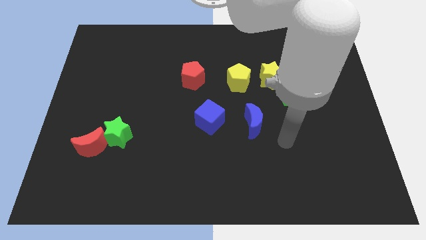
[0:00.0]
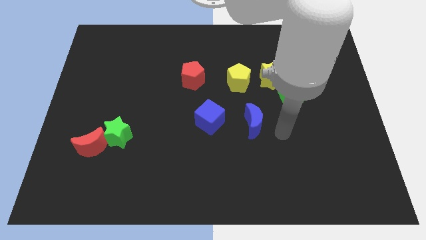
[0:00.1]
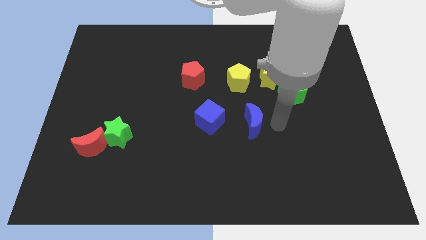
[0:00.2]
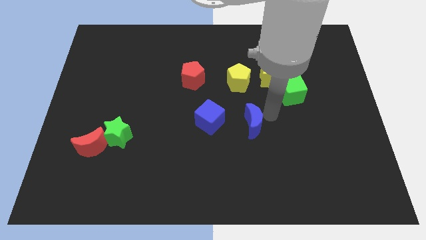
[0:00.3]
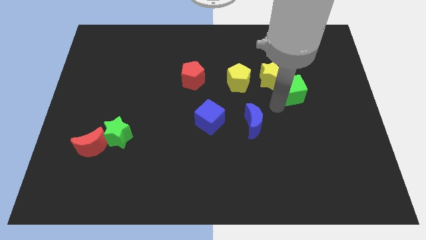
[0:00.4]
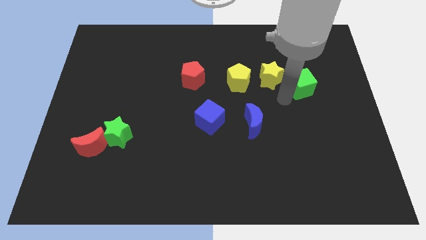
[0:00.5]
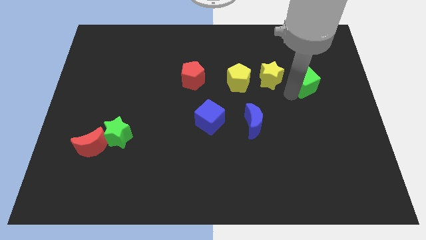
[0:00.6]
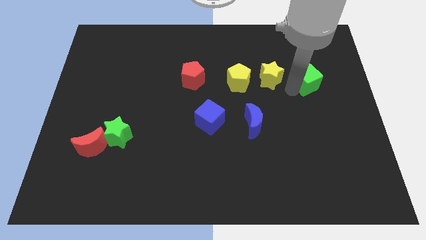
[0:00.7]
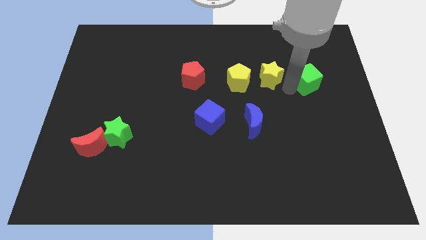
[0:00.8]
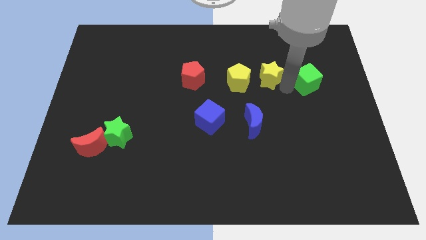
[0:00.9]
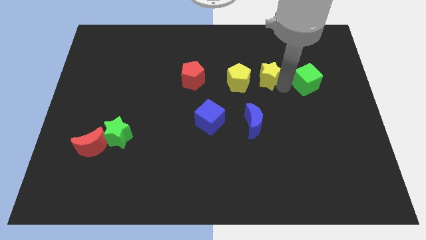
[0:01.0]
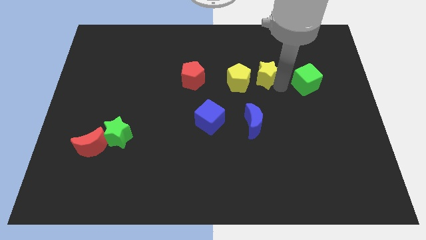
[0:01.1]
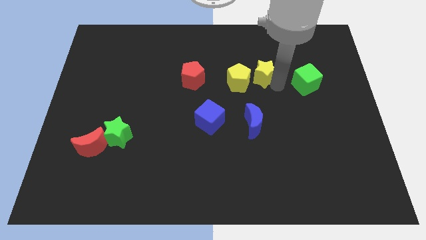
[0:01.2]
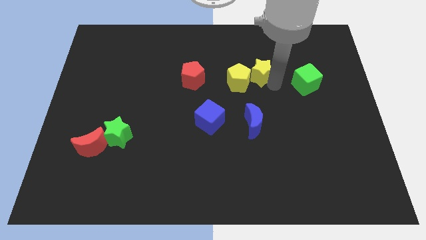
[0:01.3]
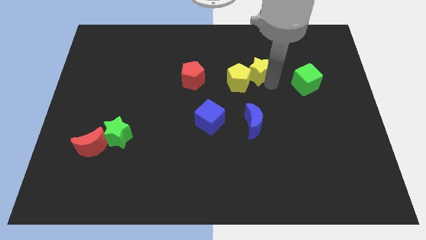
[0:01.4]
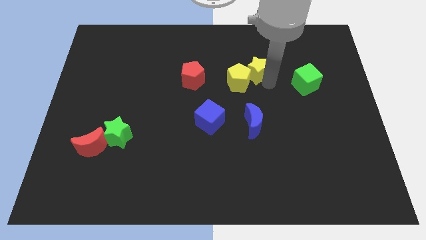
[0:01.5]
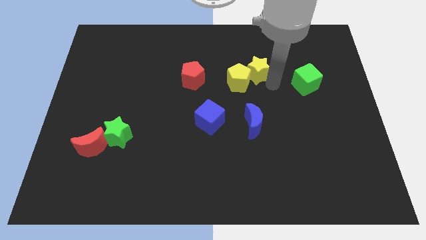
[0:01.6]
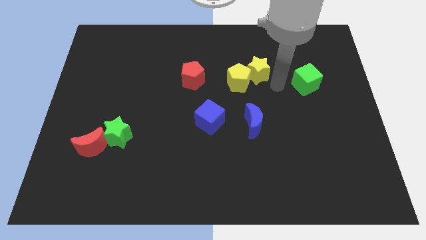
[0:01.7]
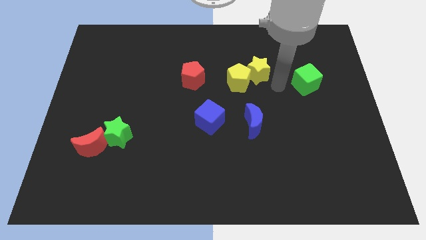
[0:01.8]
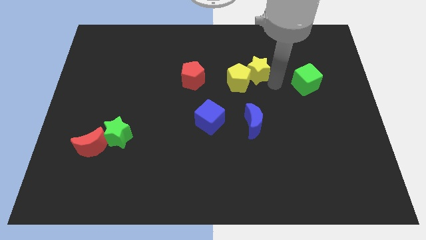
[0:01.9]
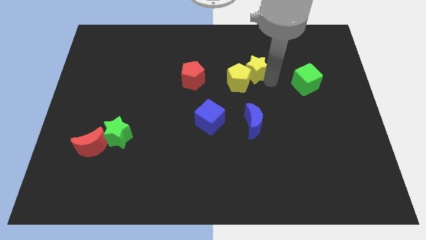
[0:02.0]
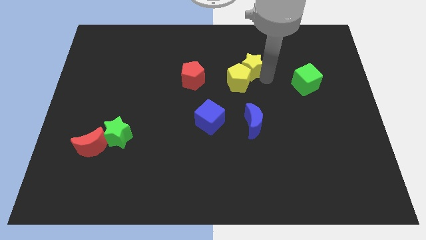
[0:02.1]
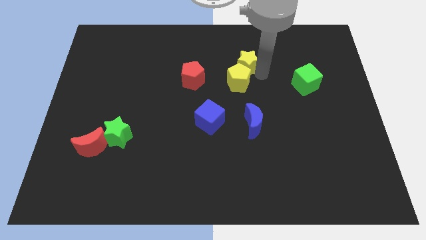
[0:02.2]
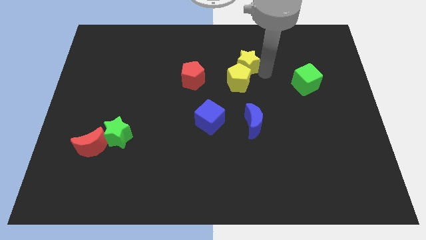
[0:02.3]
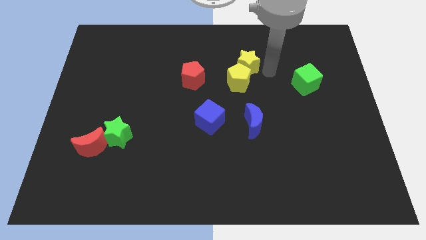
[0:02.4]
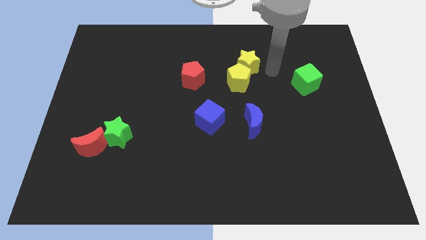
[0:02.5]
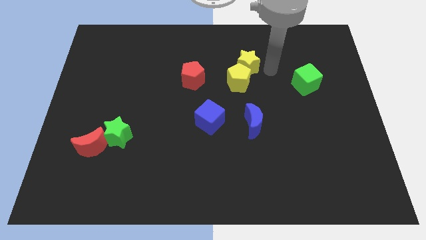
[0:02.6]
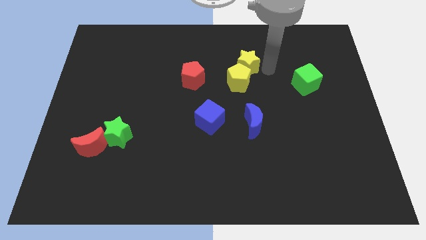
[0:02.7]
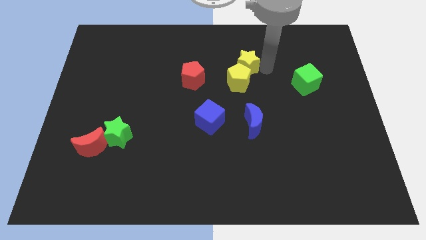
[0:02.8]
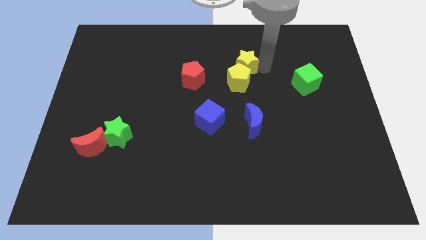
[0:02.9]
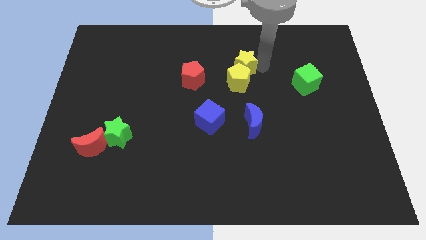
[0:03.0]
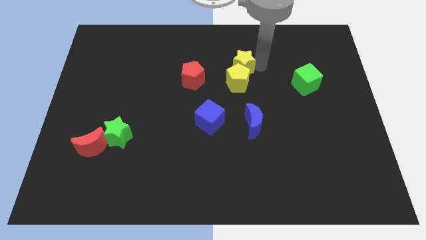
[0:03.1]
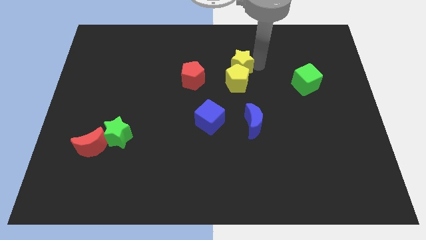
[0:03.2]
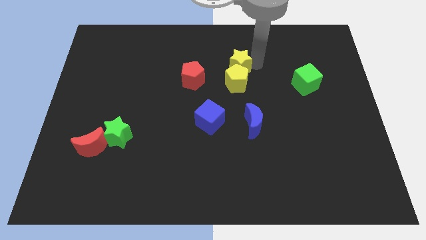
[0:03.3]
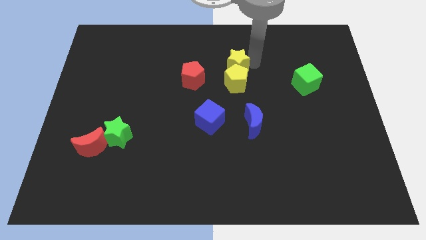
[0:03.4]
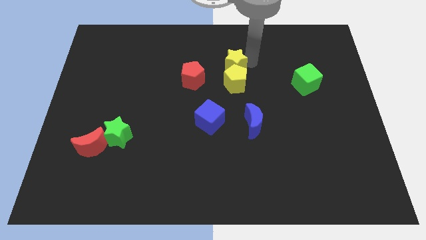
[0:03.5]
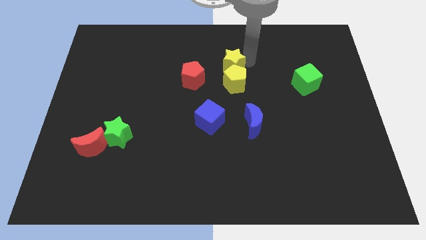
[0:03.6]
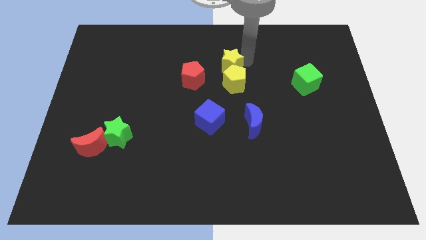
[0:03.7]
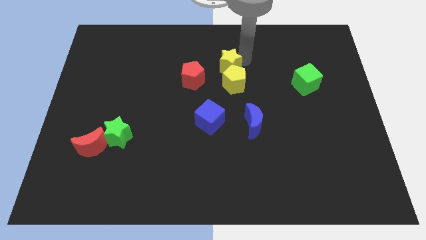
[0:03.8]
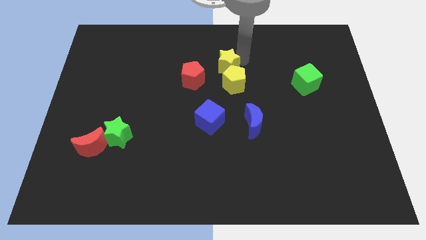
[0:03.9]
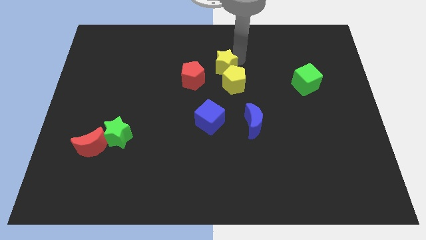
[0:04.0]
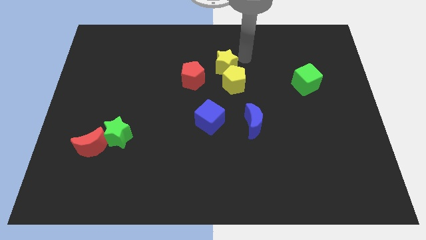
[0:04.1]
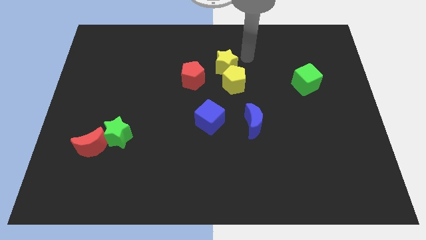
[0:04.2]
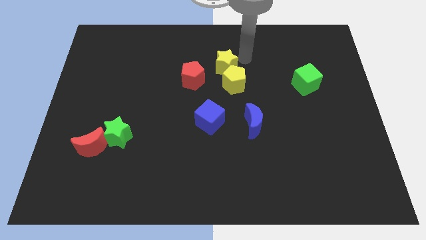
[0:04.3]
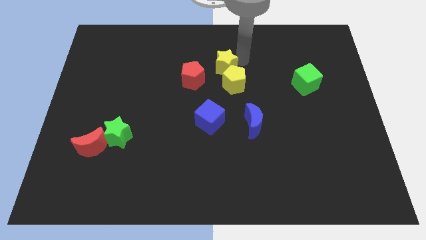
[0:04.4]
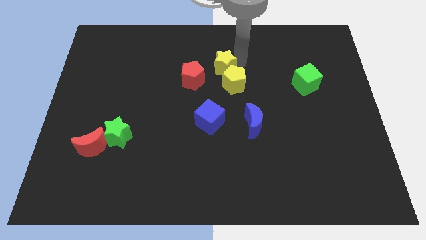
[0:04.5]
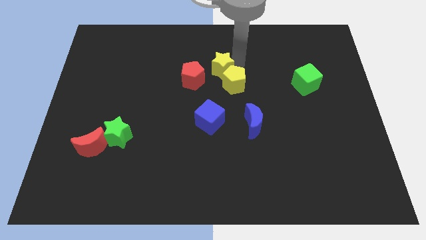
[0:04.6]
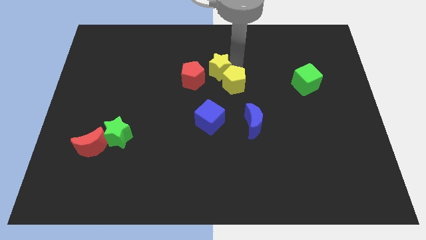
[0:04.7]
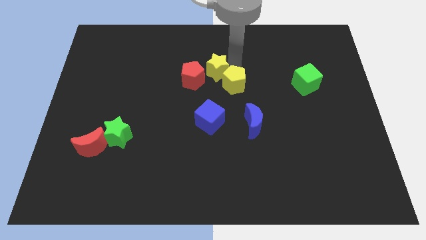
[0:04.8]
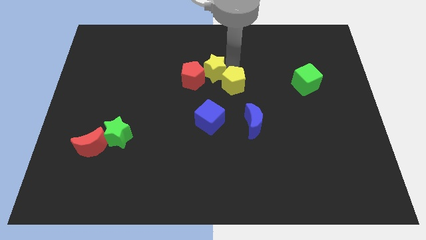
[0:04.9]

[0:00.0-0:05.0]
put the yellow star next to the red pentagon

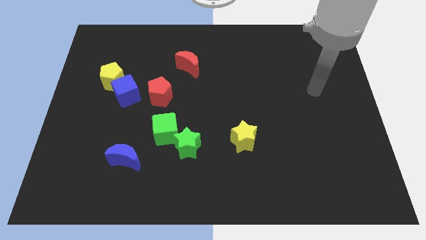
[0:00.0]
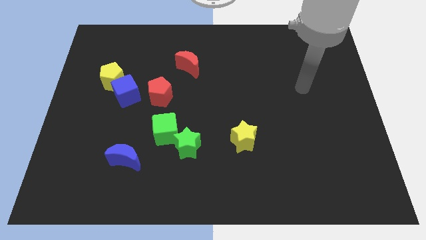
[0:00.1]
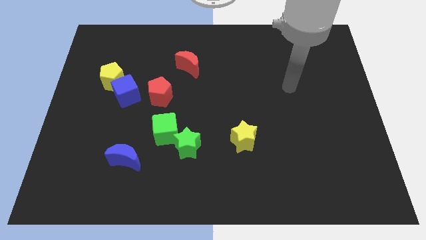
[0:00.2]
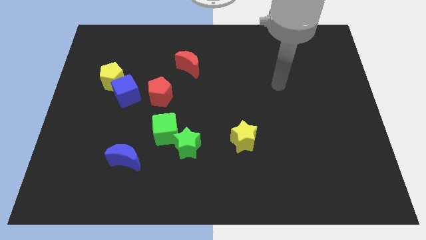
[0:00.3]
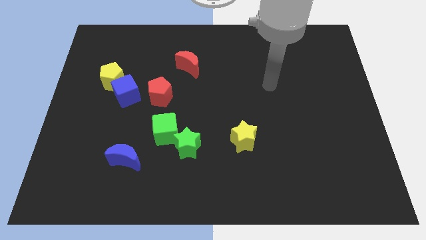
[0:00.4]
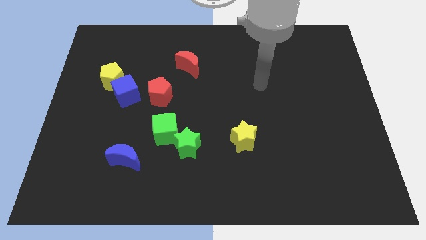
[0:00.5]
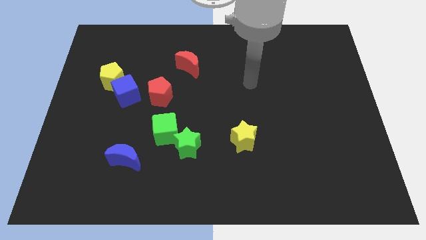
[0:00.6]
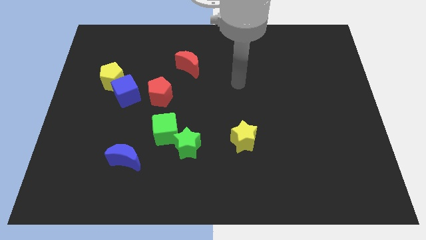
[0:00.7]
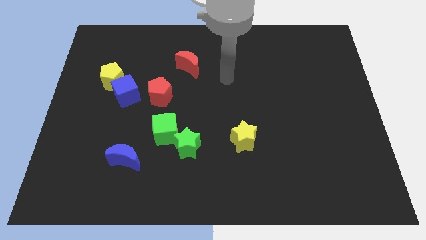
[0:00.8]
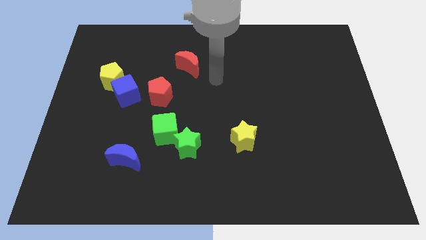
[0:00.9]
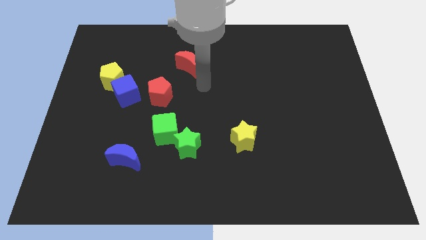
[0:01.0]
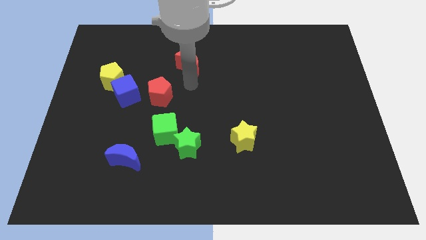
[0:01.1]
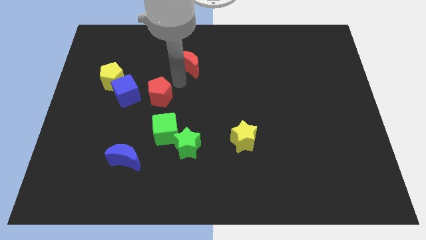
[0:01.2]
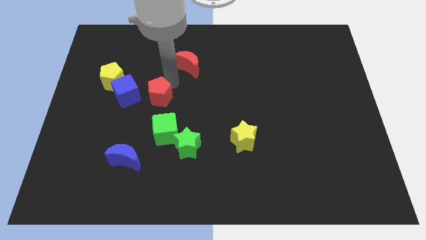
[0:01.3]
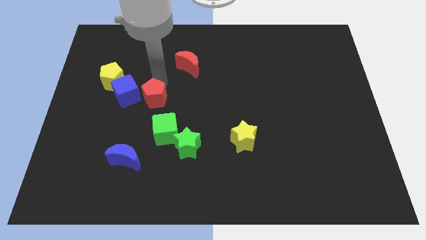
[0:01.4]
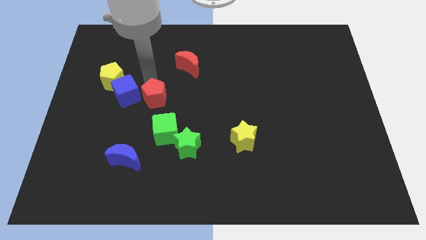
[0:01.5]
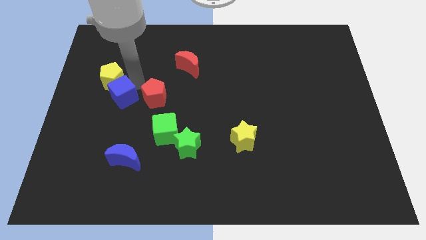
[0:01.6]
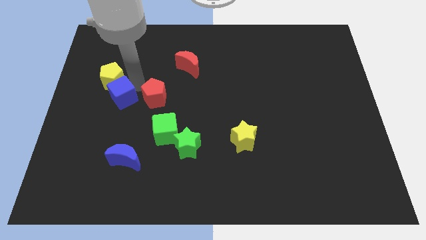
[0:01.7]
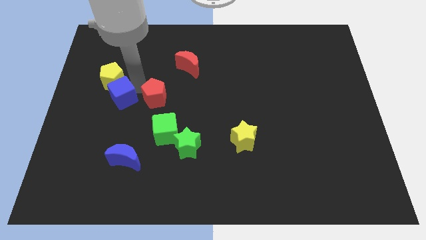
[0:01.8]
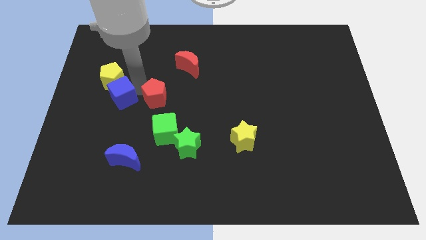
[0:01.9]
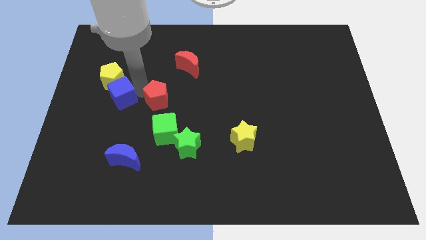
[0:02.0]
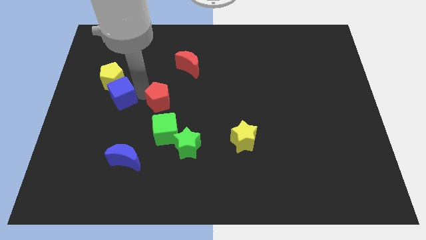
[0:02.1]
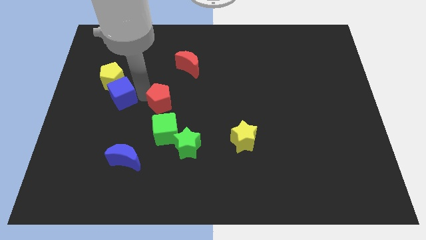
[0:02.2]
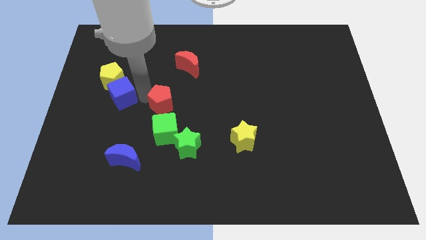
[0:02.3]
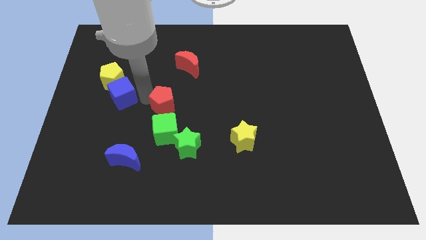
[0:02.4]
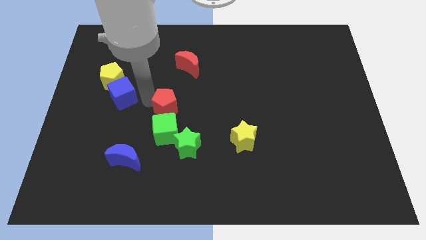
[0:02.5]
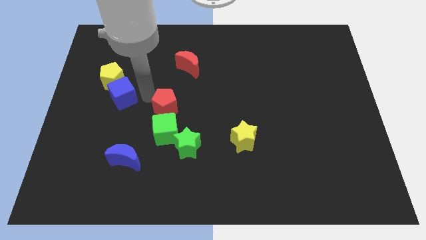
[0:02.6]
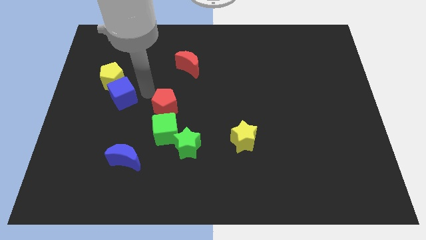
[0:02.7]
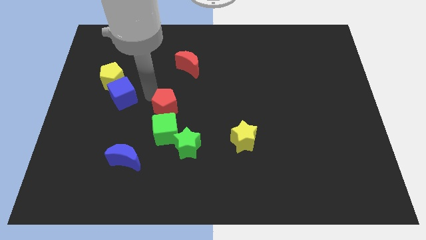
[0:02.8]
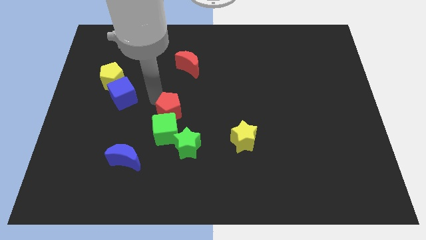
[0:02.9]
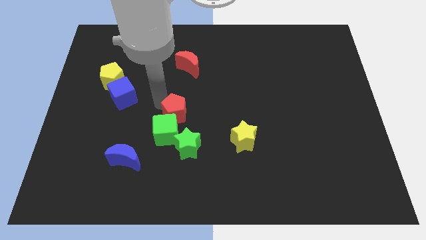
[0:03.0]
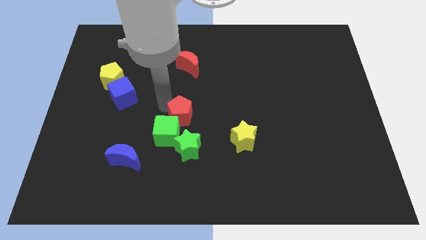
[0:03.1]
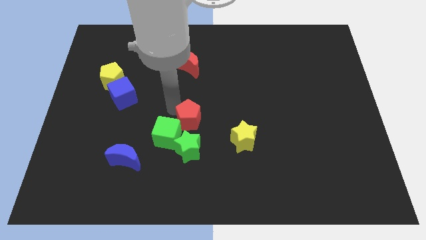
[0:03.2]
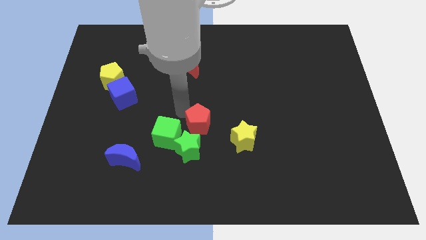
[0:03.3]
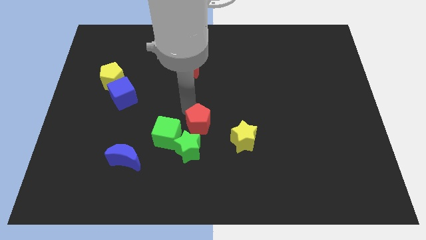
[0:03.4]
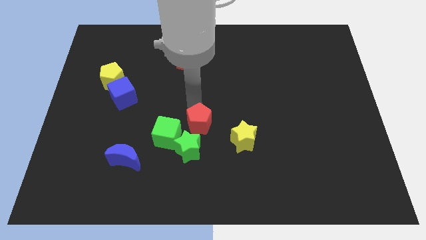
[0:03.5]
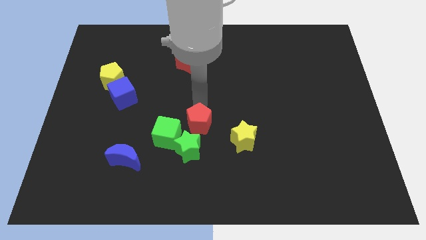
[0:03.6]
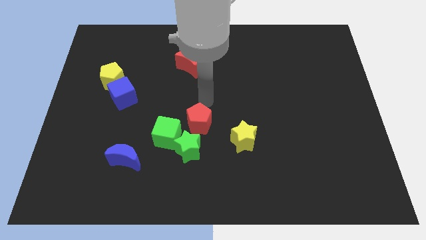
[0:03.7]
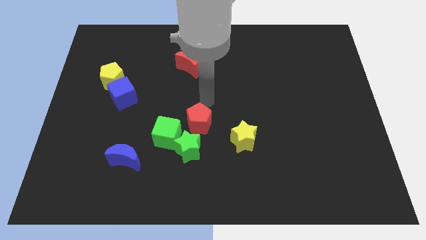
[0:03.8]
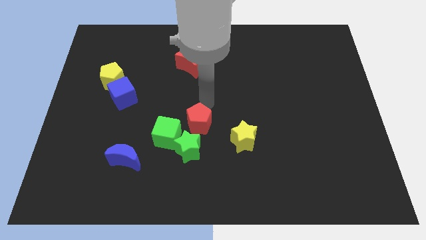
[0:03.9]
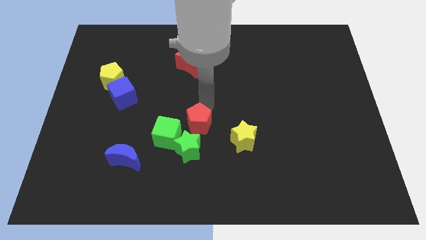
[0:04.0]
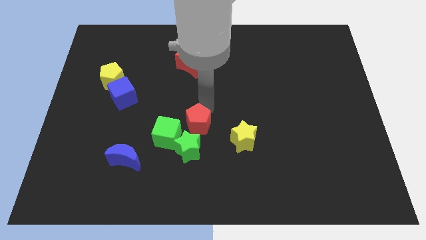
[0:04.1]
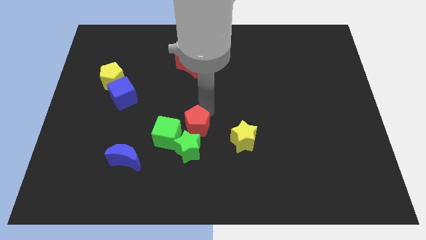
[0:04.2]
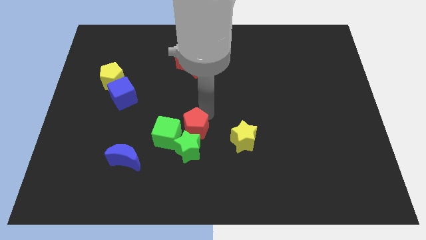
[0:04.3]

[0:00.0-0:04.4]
push the red pentagon to the green star
